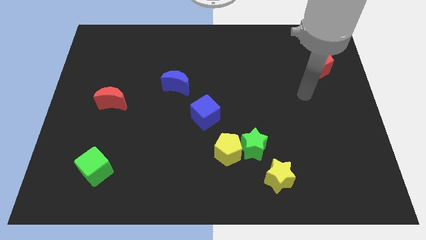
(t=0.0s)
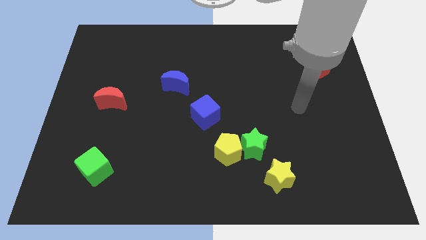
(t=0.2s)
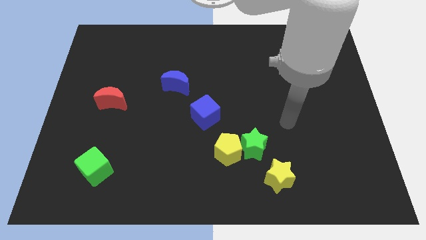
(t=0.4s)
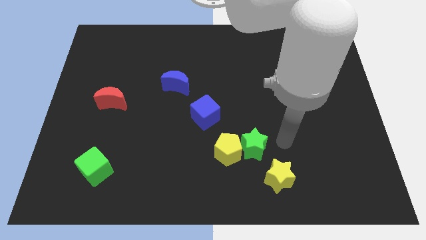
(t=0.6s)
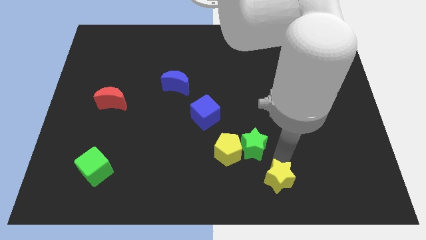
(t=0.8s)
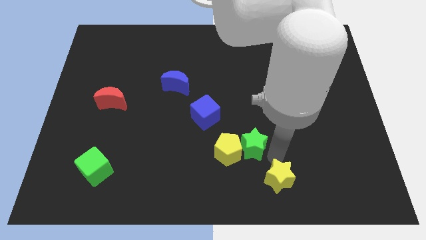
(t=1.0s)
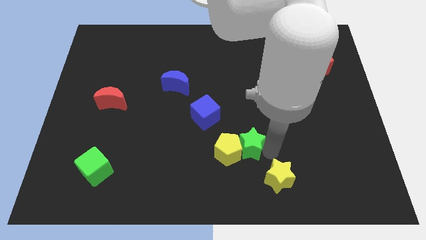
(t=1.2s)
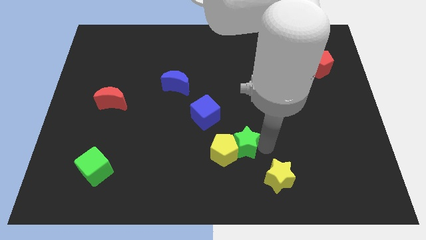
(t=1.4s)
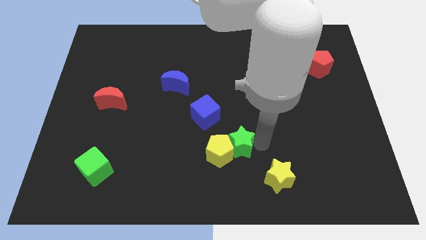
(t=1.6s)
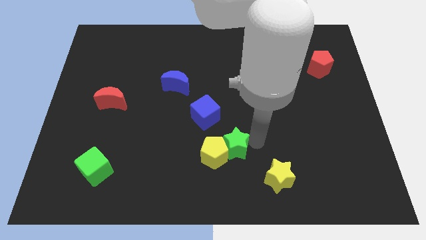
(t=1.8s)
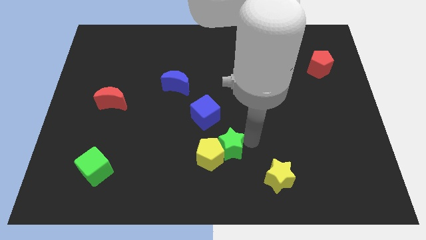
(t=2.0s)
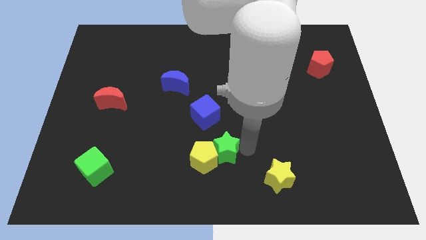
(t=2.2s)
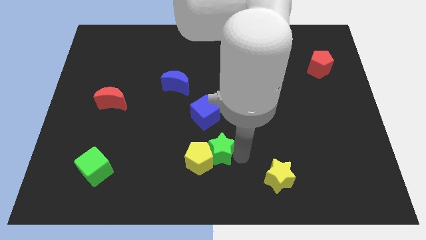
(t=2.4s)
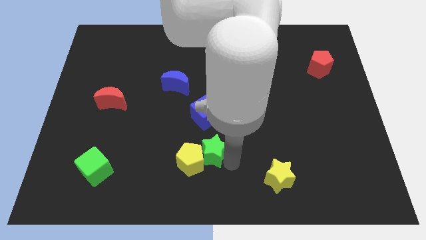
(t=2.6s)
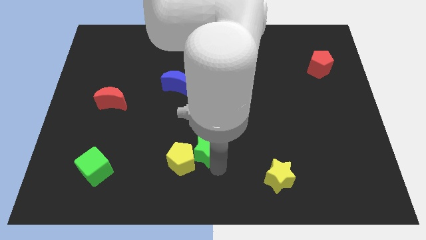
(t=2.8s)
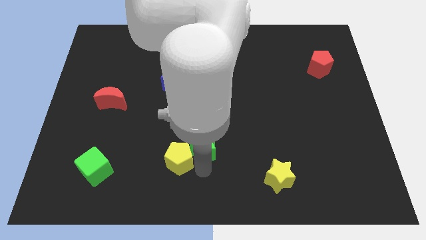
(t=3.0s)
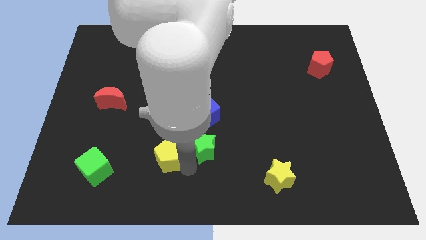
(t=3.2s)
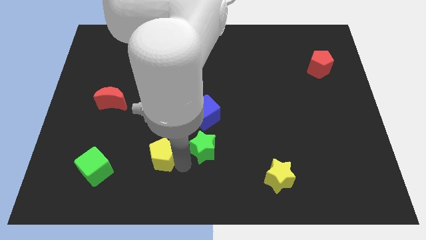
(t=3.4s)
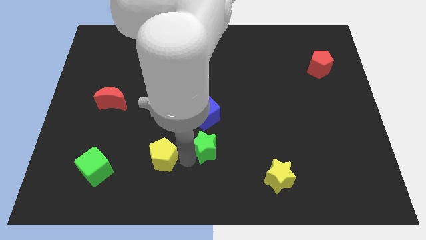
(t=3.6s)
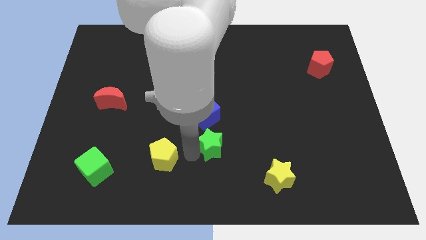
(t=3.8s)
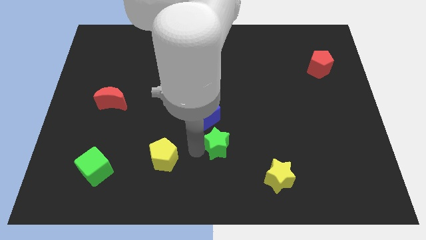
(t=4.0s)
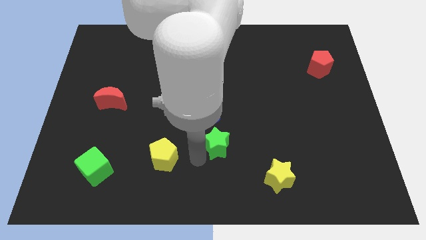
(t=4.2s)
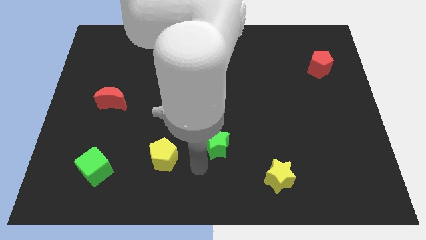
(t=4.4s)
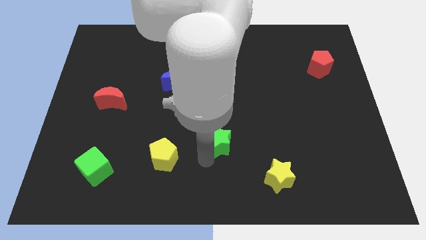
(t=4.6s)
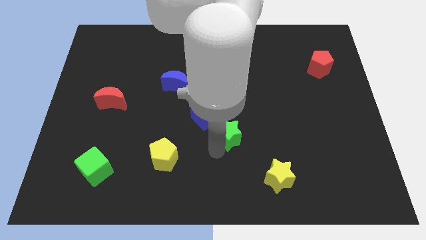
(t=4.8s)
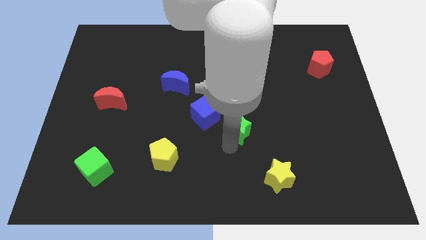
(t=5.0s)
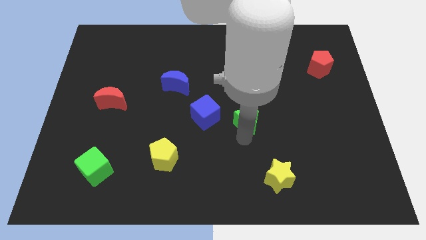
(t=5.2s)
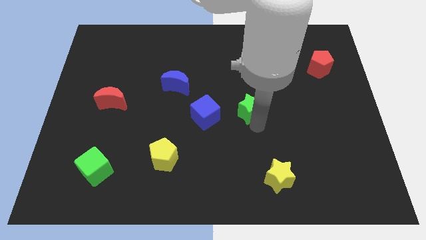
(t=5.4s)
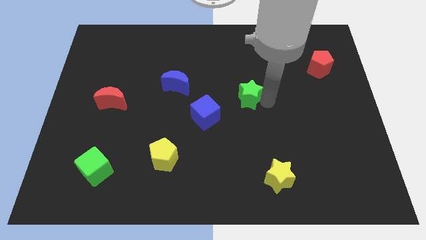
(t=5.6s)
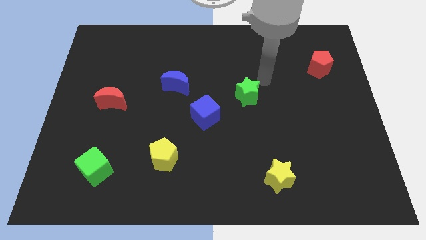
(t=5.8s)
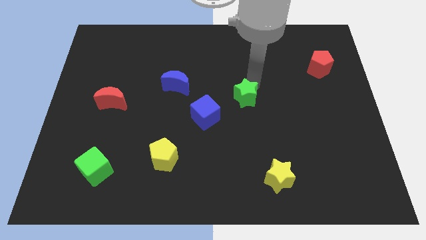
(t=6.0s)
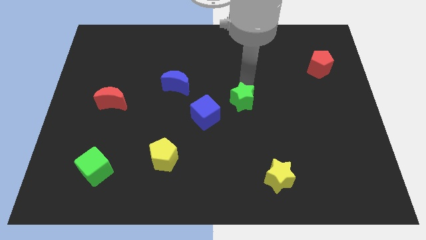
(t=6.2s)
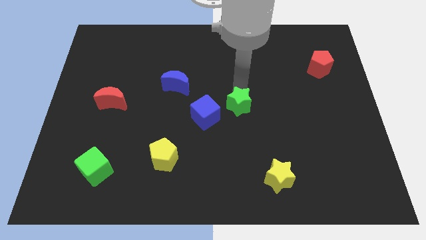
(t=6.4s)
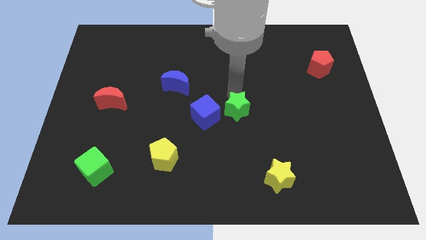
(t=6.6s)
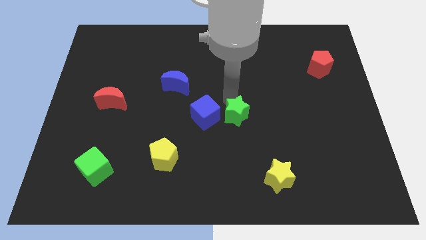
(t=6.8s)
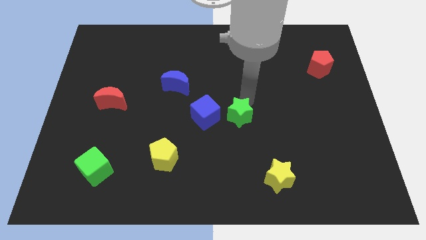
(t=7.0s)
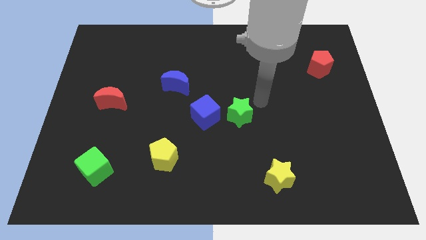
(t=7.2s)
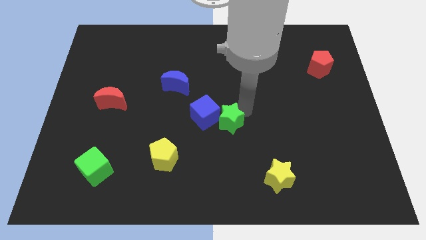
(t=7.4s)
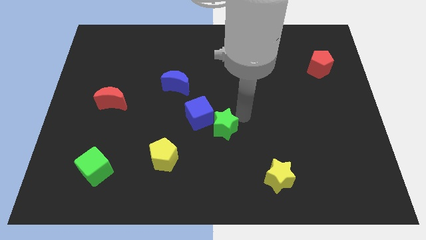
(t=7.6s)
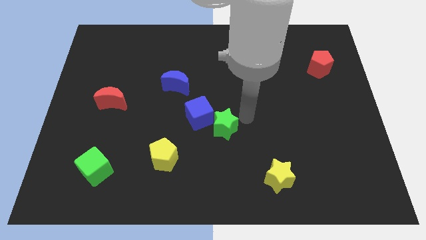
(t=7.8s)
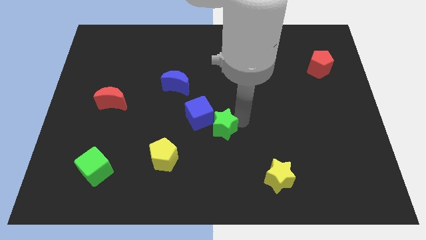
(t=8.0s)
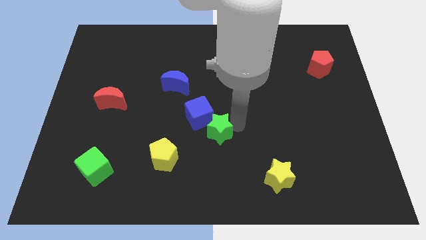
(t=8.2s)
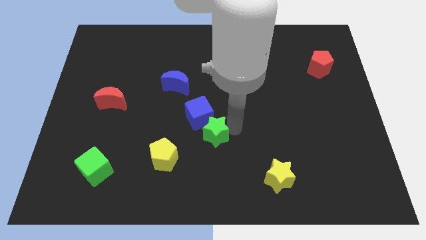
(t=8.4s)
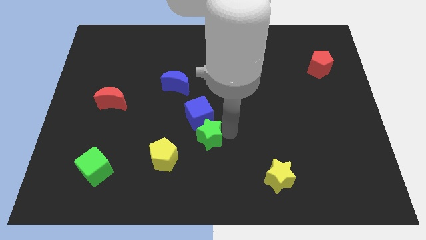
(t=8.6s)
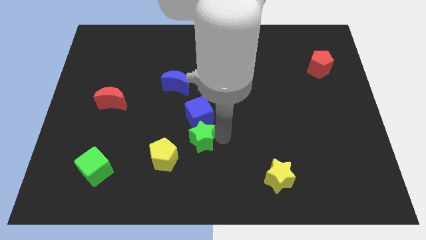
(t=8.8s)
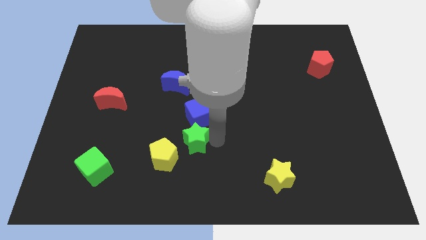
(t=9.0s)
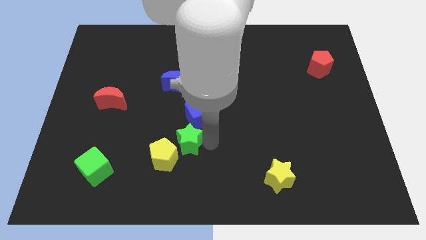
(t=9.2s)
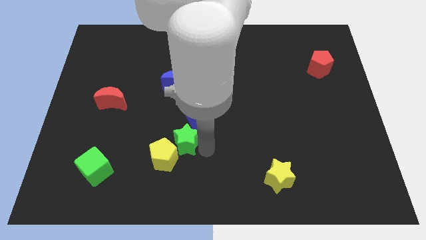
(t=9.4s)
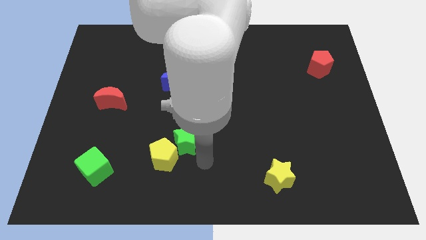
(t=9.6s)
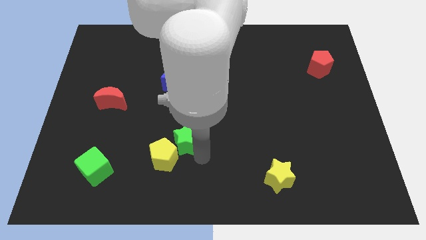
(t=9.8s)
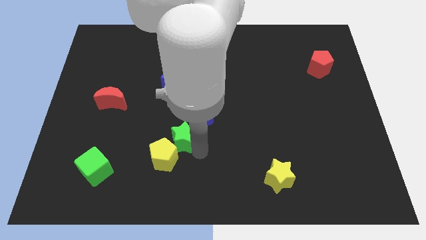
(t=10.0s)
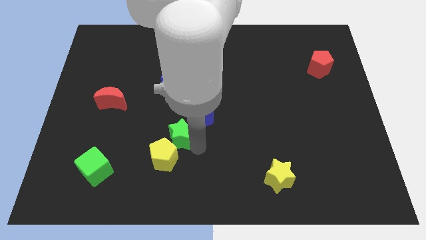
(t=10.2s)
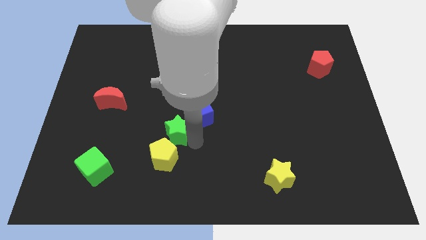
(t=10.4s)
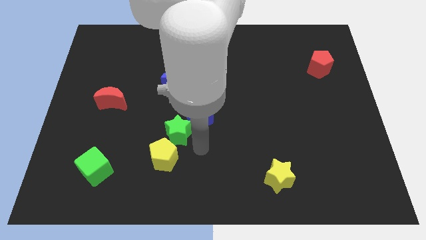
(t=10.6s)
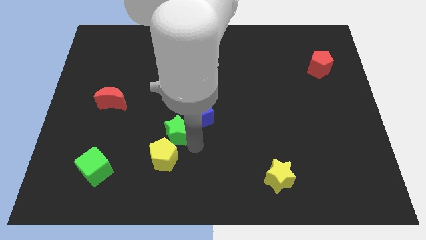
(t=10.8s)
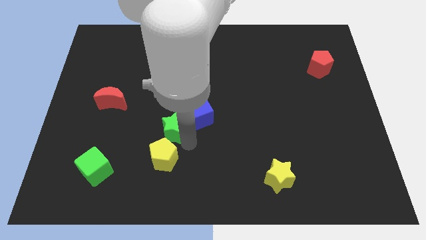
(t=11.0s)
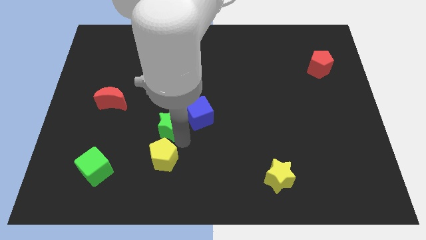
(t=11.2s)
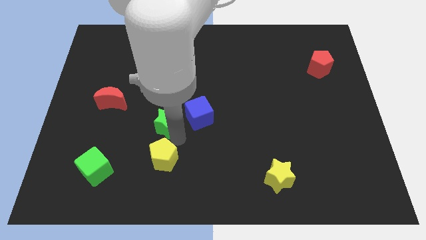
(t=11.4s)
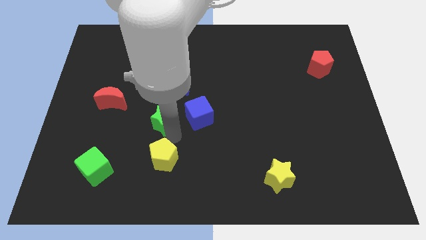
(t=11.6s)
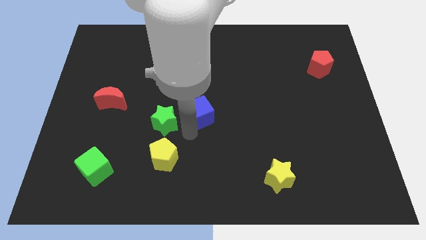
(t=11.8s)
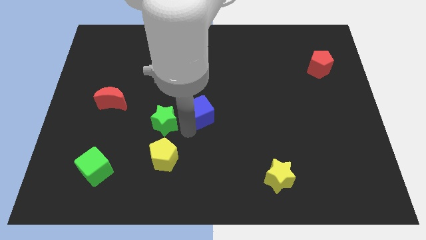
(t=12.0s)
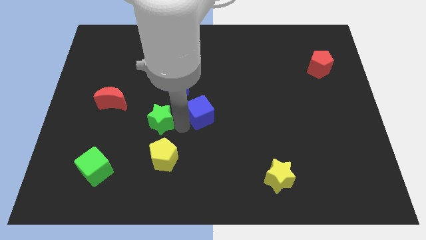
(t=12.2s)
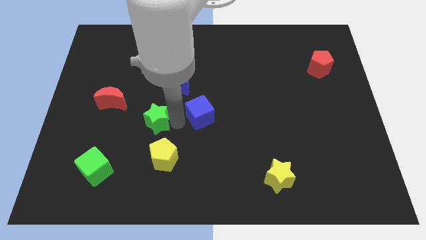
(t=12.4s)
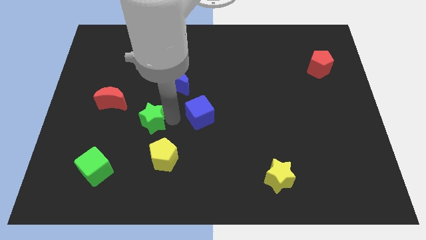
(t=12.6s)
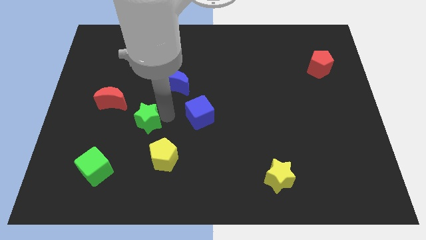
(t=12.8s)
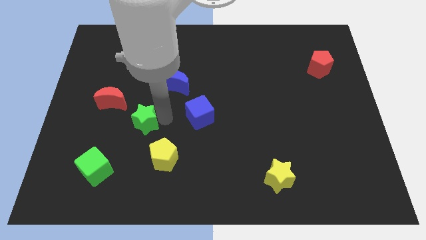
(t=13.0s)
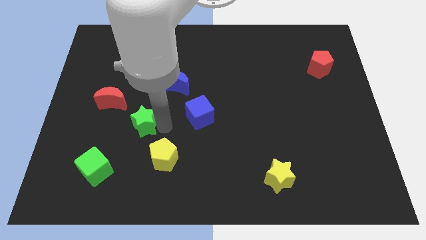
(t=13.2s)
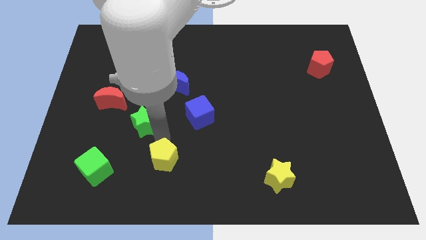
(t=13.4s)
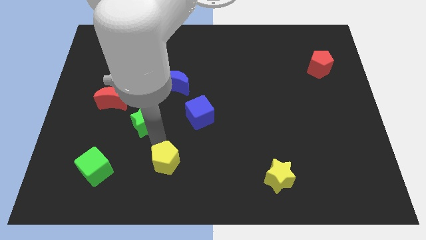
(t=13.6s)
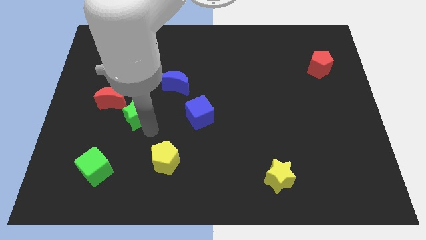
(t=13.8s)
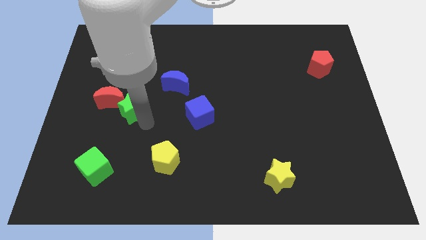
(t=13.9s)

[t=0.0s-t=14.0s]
put the green star next to the red moon
